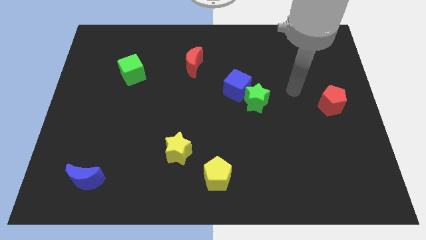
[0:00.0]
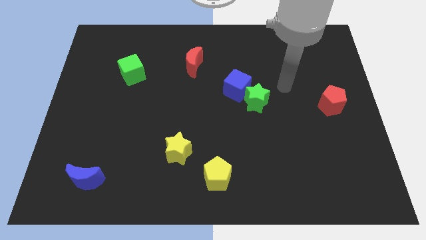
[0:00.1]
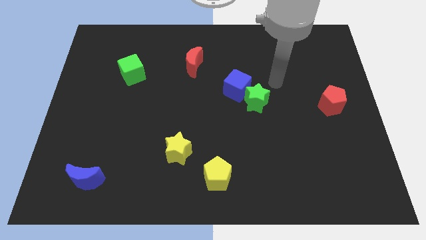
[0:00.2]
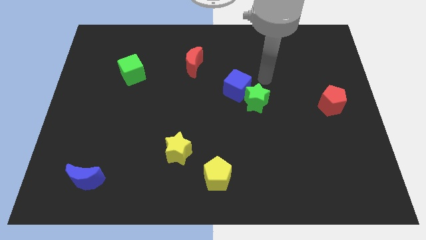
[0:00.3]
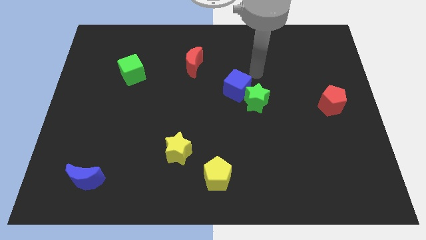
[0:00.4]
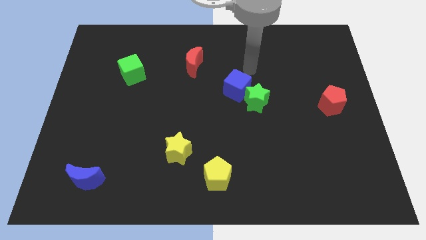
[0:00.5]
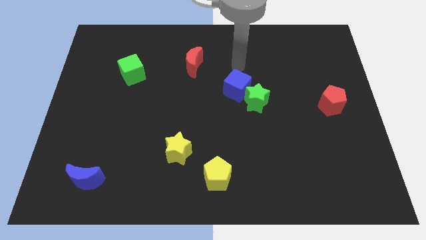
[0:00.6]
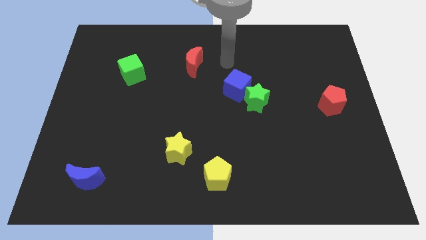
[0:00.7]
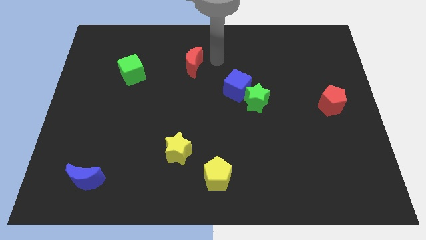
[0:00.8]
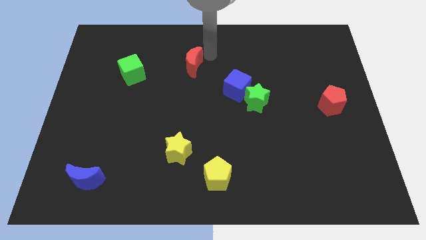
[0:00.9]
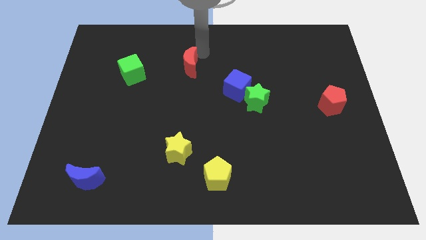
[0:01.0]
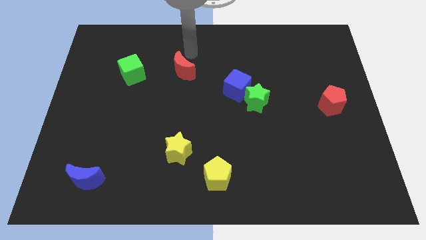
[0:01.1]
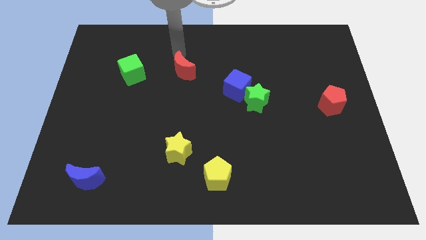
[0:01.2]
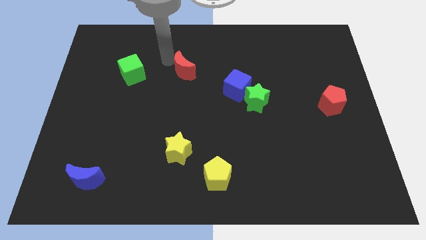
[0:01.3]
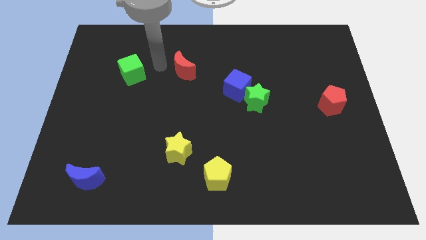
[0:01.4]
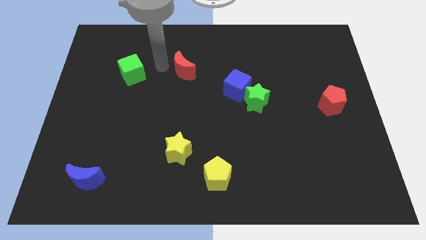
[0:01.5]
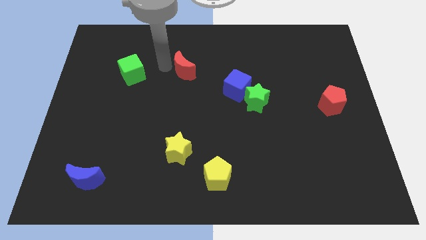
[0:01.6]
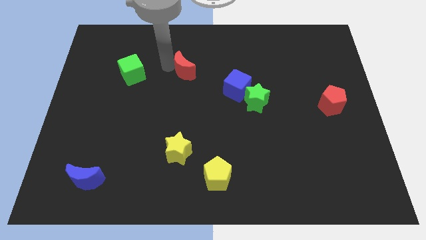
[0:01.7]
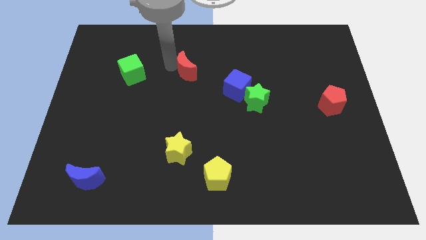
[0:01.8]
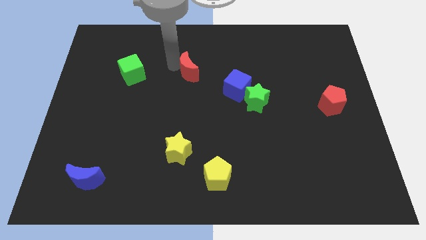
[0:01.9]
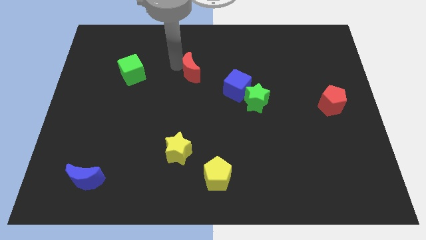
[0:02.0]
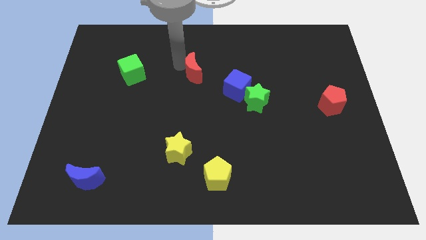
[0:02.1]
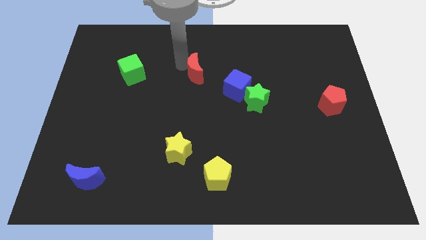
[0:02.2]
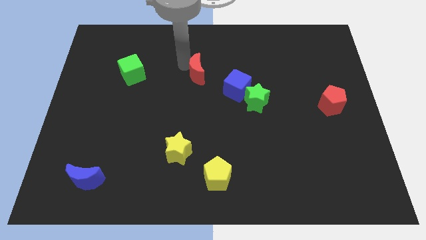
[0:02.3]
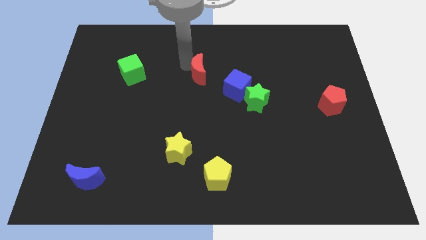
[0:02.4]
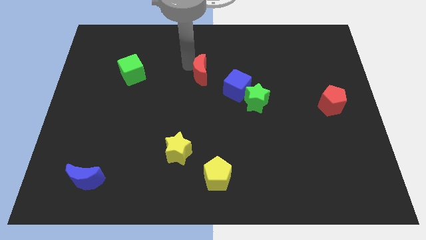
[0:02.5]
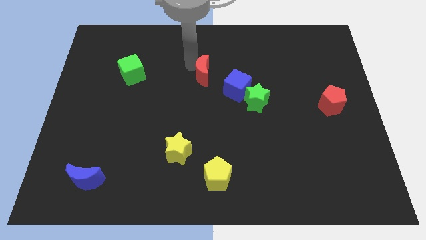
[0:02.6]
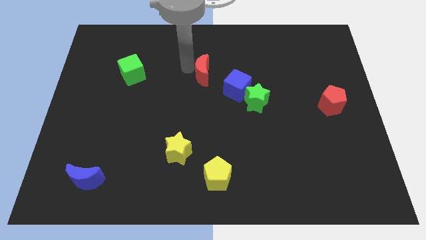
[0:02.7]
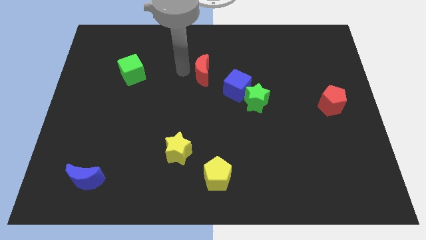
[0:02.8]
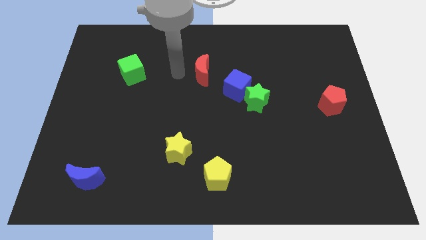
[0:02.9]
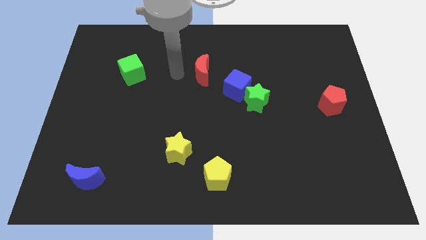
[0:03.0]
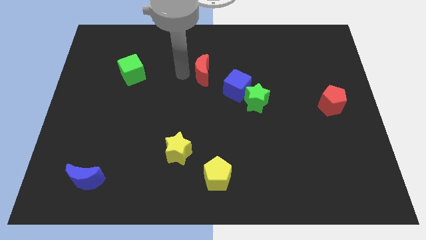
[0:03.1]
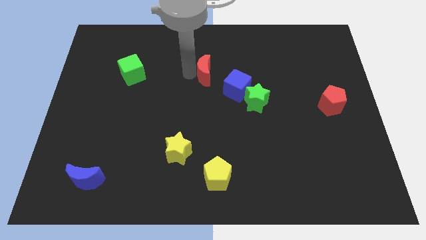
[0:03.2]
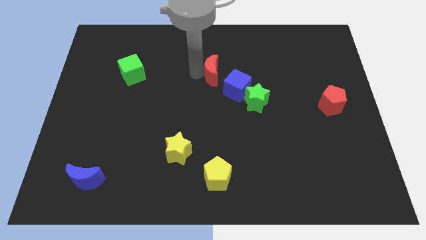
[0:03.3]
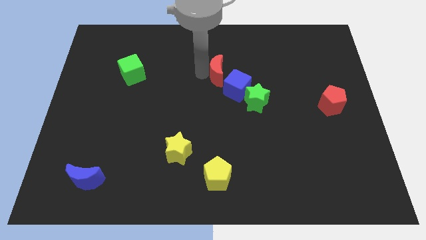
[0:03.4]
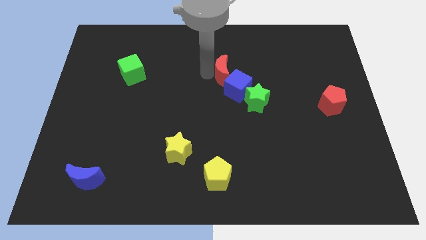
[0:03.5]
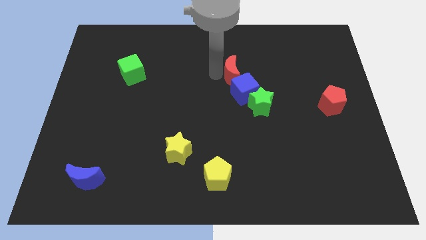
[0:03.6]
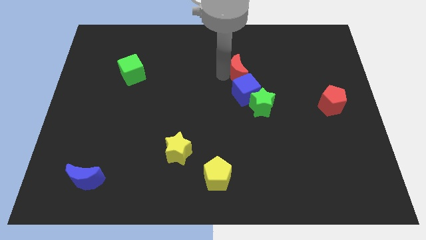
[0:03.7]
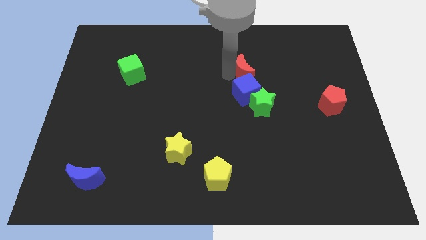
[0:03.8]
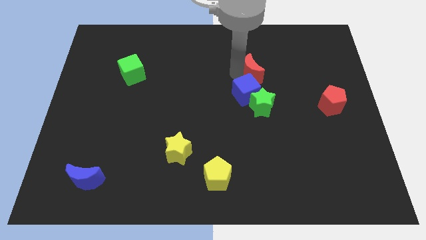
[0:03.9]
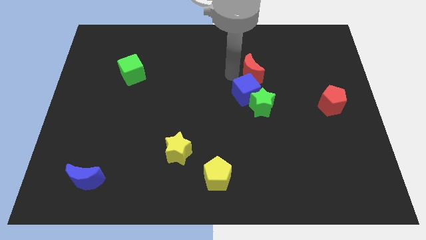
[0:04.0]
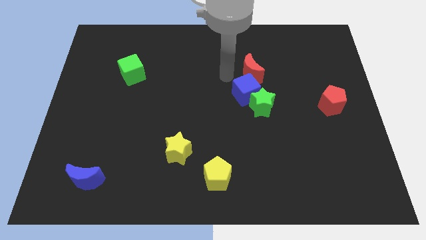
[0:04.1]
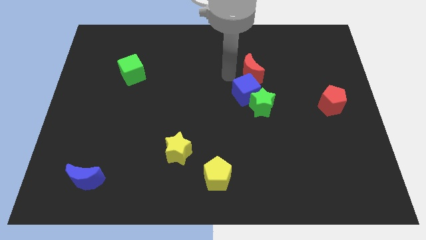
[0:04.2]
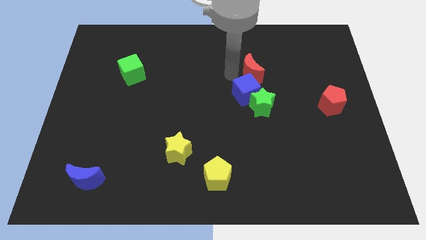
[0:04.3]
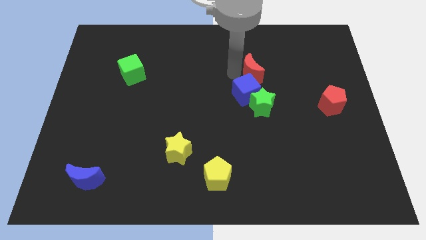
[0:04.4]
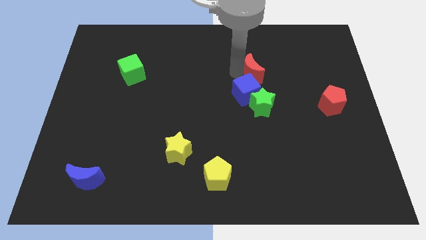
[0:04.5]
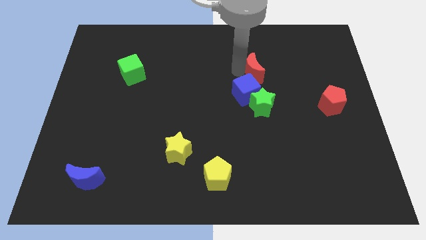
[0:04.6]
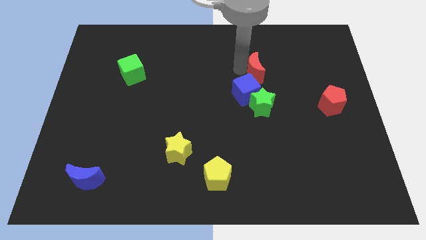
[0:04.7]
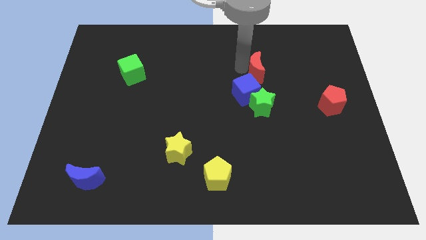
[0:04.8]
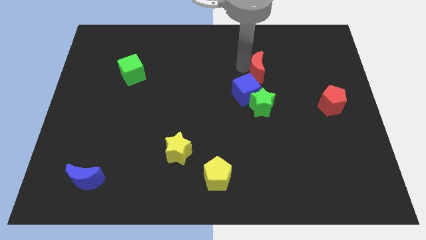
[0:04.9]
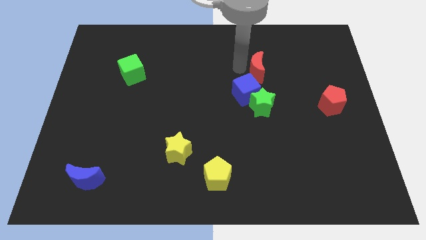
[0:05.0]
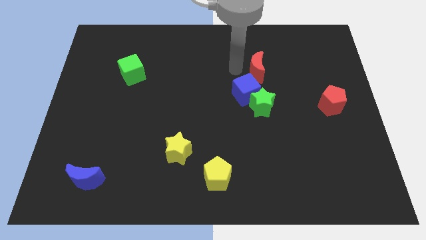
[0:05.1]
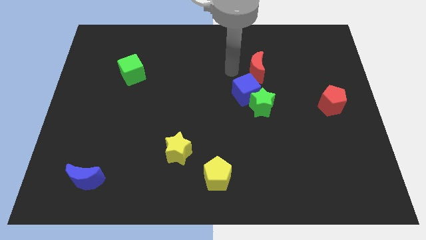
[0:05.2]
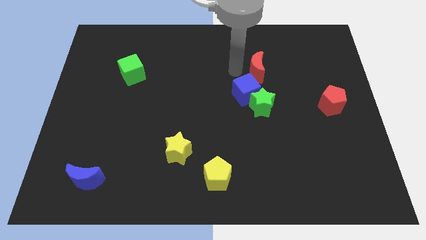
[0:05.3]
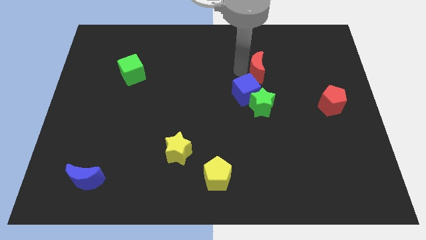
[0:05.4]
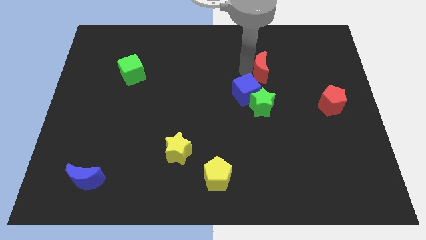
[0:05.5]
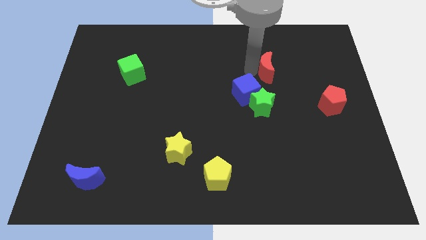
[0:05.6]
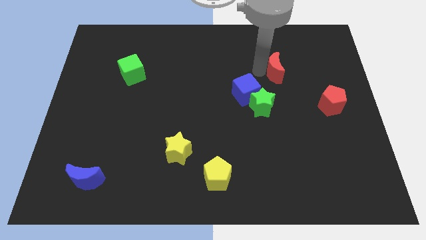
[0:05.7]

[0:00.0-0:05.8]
push the red moon to the right

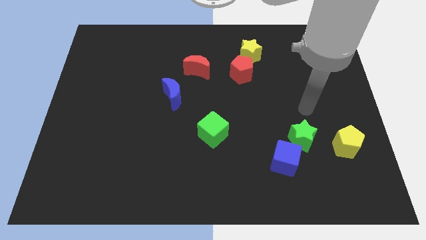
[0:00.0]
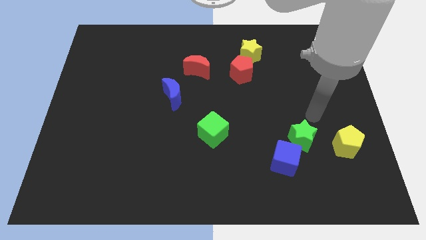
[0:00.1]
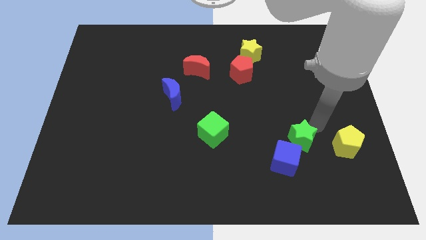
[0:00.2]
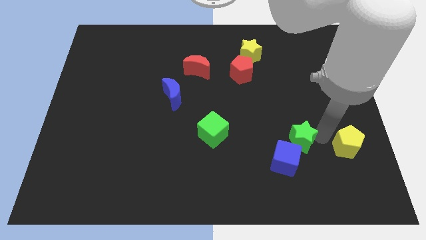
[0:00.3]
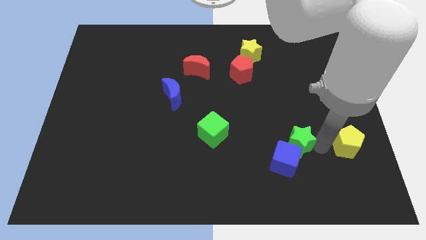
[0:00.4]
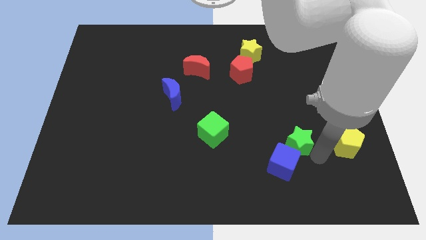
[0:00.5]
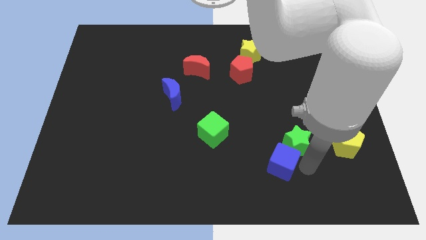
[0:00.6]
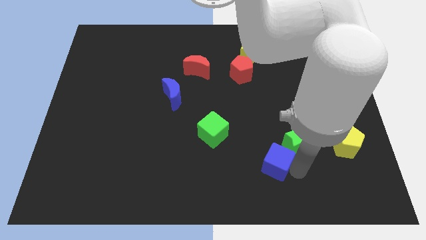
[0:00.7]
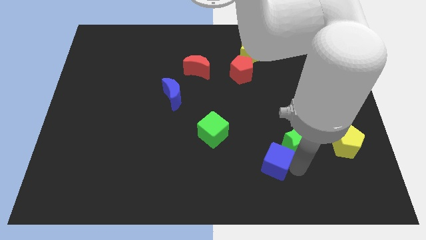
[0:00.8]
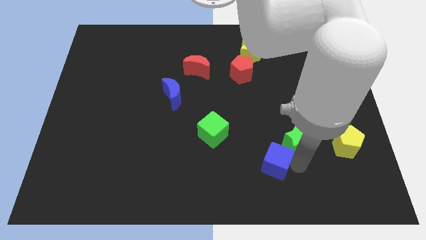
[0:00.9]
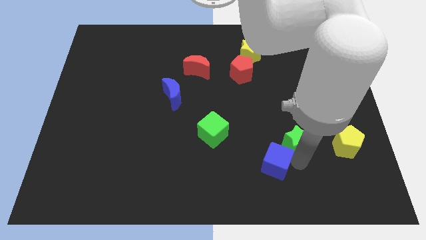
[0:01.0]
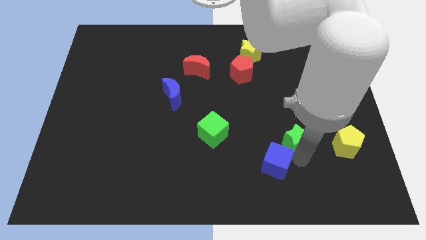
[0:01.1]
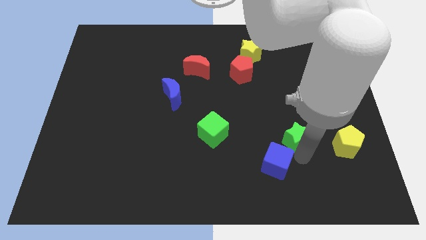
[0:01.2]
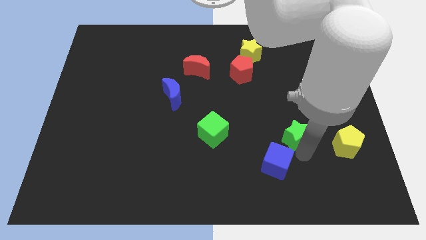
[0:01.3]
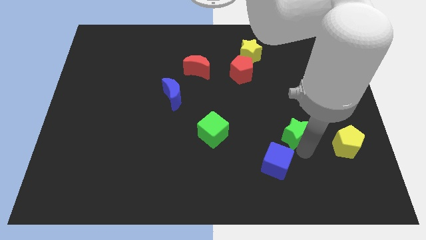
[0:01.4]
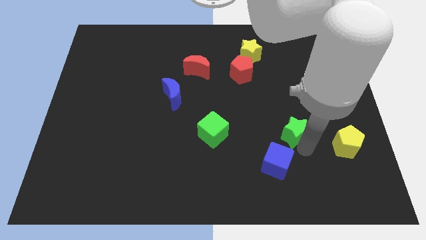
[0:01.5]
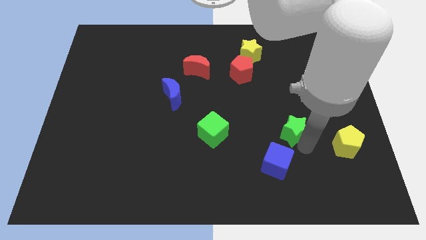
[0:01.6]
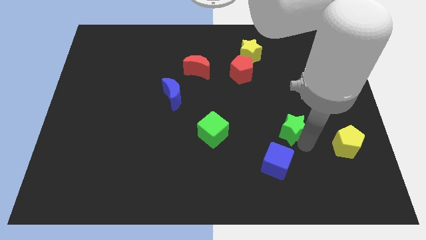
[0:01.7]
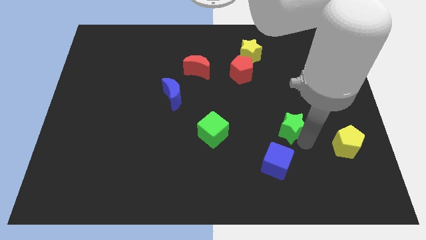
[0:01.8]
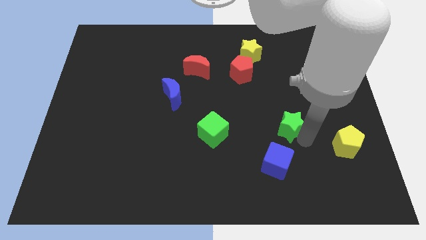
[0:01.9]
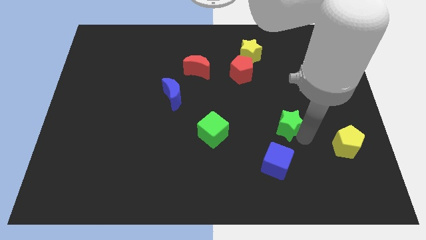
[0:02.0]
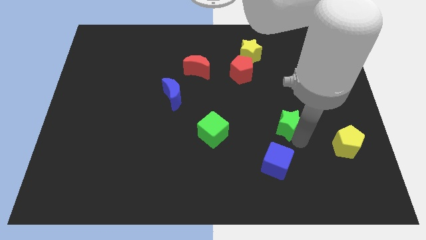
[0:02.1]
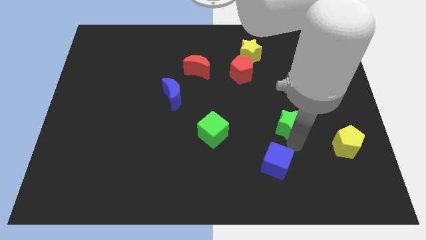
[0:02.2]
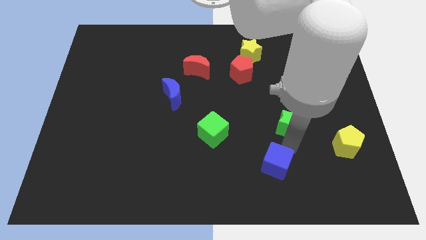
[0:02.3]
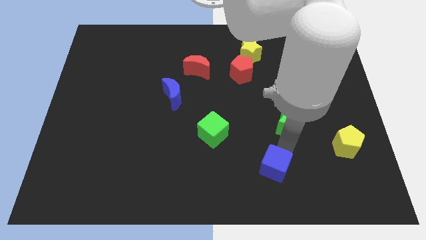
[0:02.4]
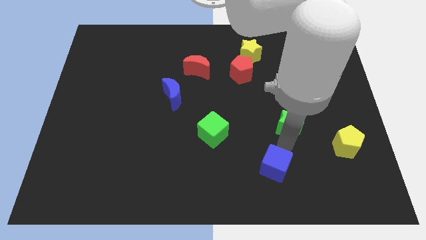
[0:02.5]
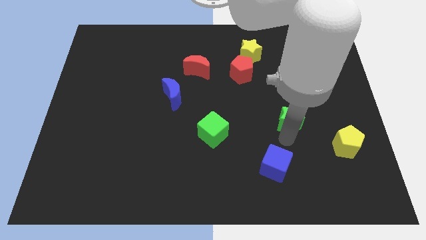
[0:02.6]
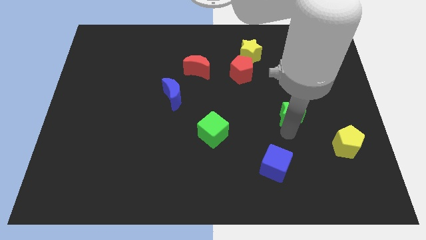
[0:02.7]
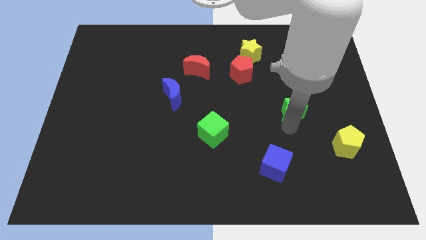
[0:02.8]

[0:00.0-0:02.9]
push the green star somewhat upwards
